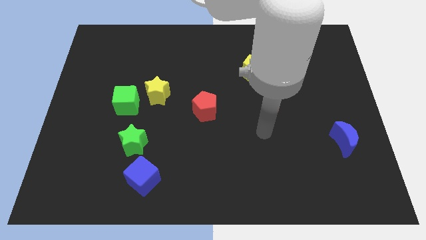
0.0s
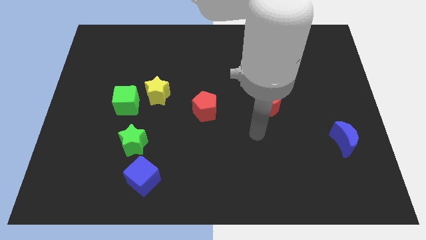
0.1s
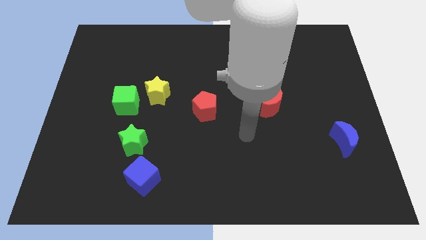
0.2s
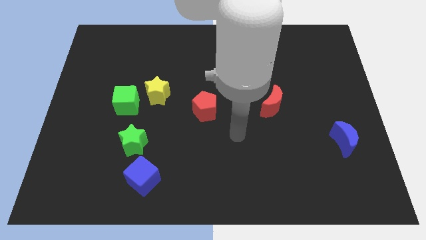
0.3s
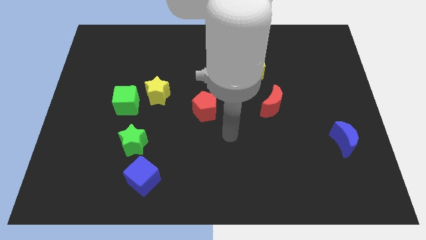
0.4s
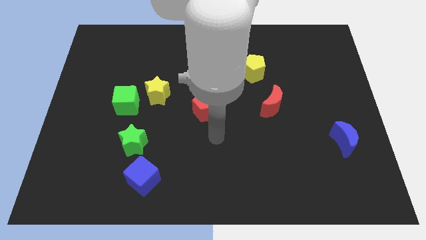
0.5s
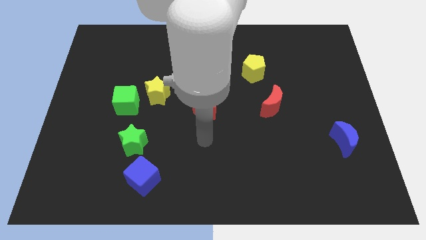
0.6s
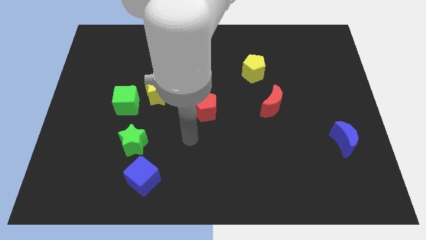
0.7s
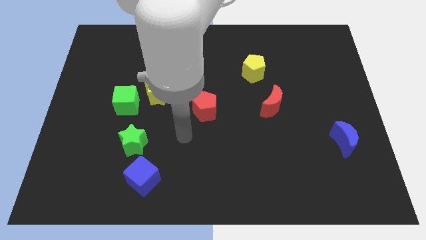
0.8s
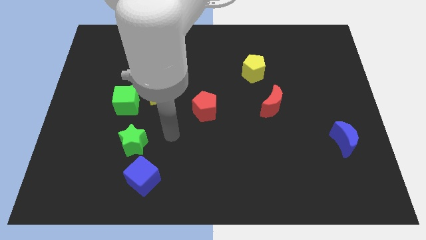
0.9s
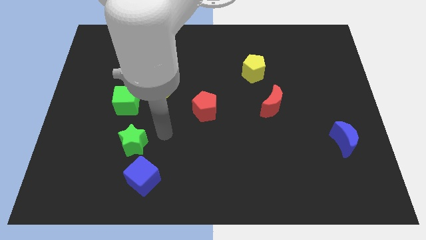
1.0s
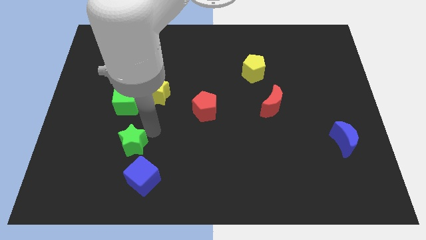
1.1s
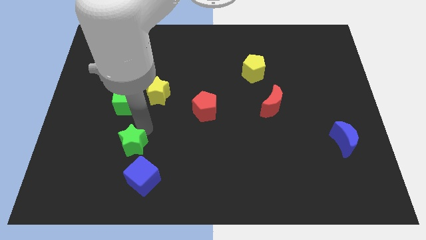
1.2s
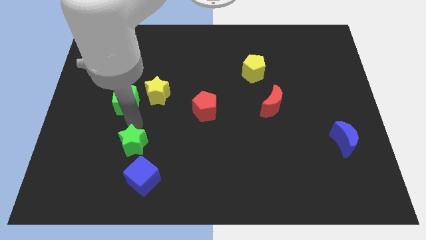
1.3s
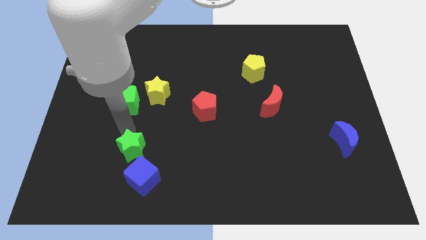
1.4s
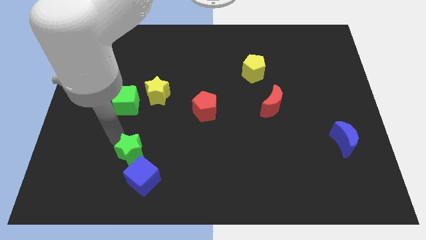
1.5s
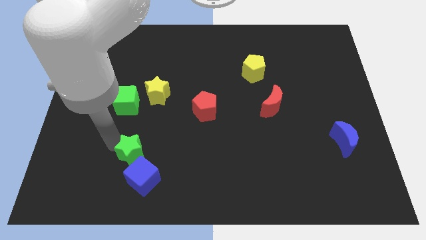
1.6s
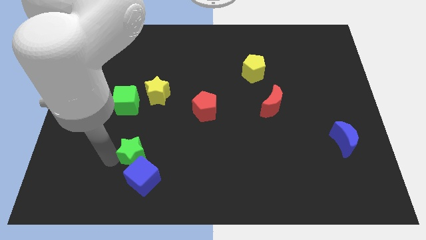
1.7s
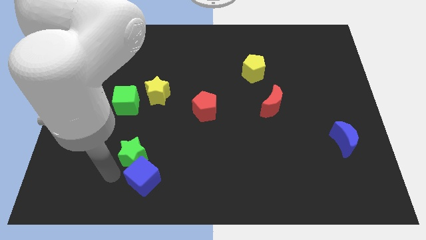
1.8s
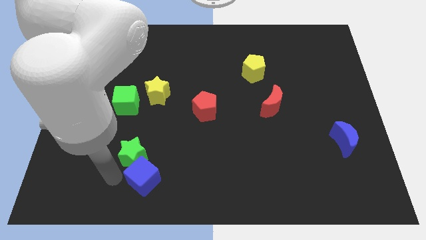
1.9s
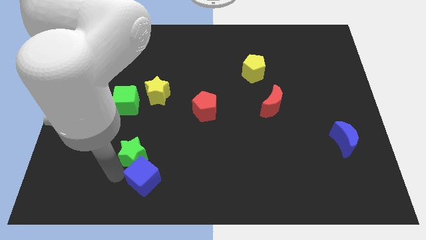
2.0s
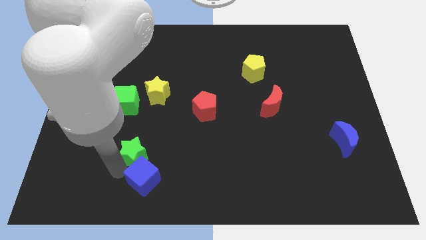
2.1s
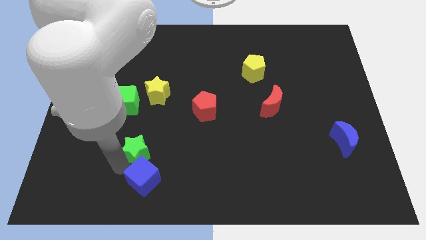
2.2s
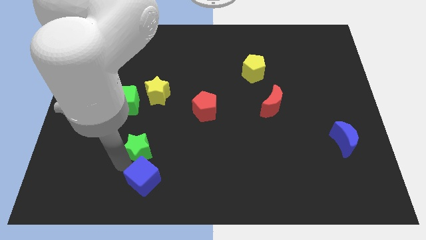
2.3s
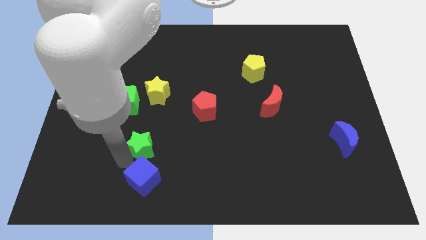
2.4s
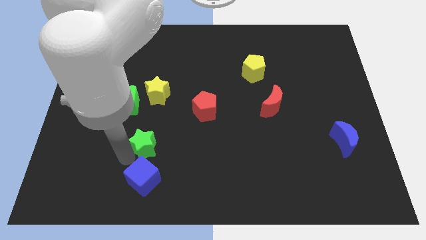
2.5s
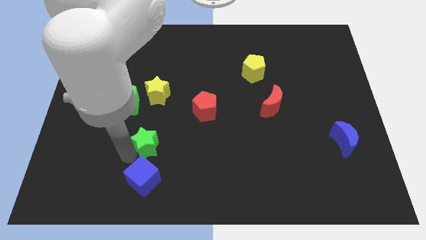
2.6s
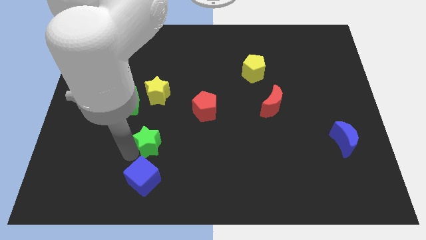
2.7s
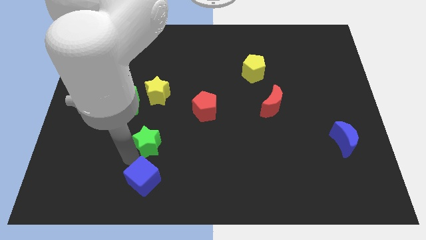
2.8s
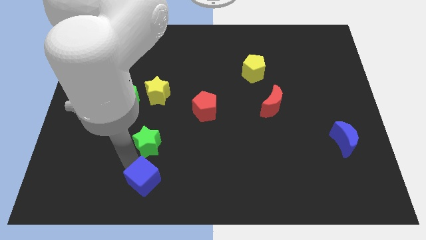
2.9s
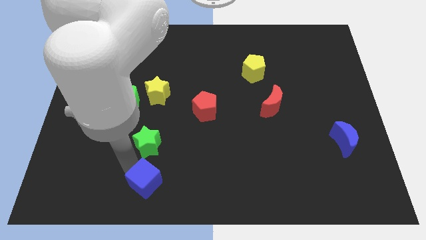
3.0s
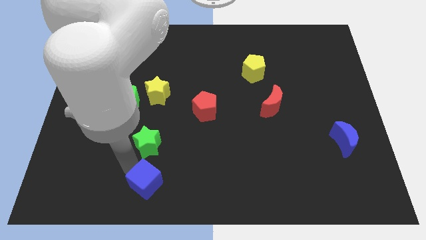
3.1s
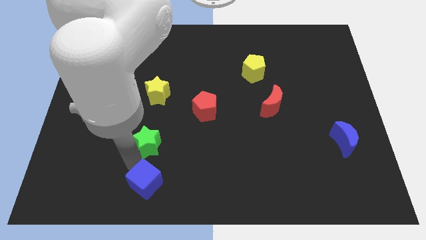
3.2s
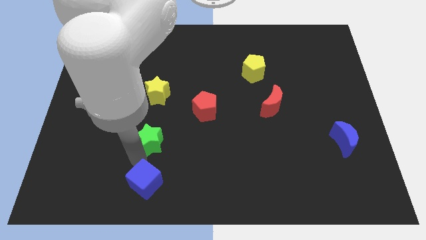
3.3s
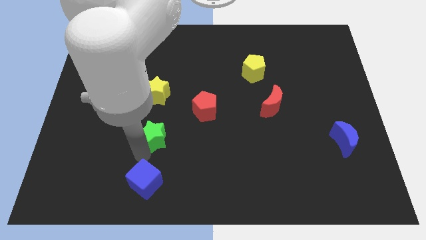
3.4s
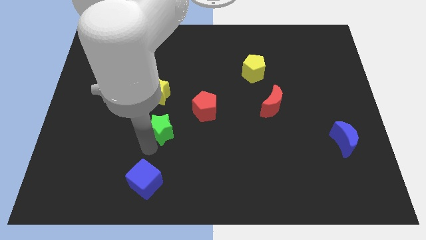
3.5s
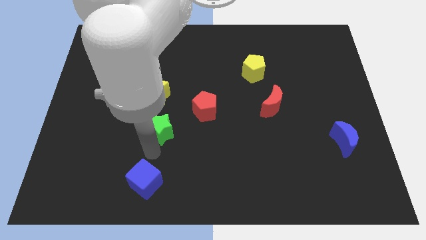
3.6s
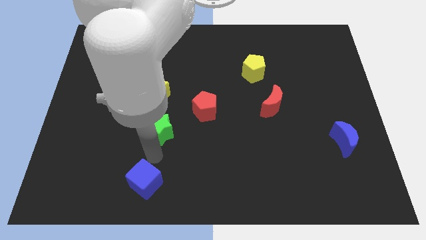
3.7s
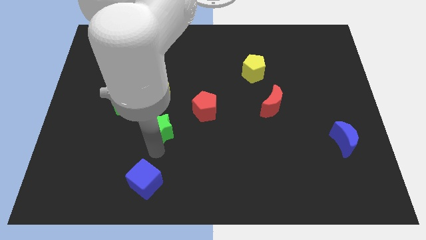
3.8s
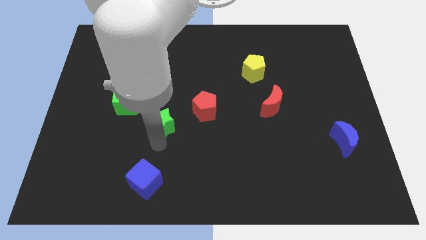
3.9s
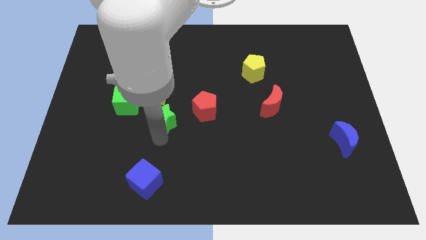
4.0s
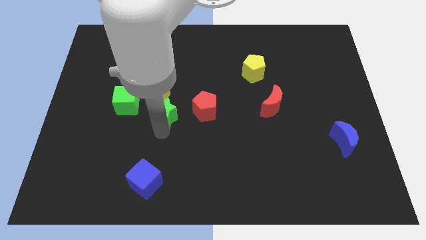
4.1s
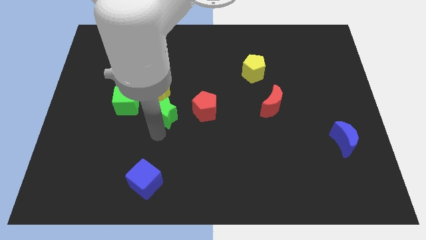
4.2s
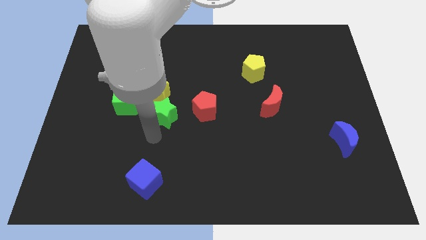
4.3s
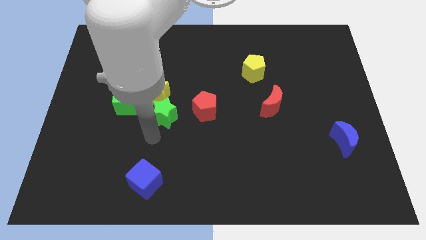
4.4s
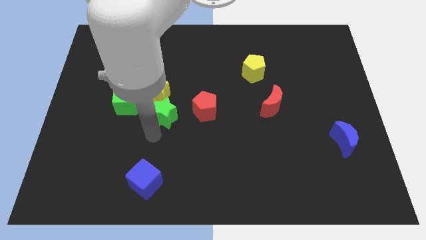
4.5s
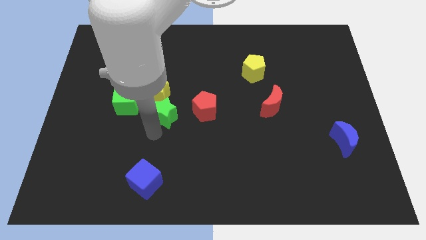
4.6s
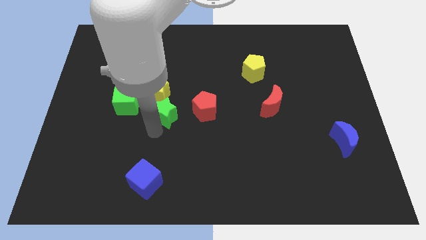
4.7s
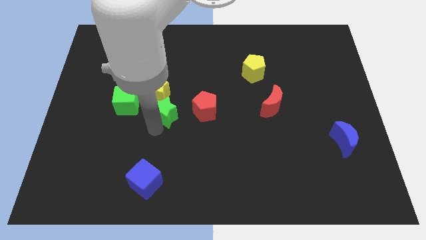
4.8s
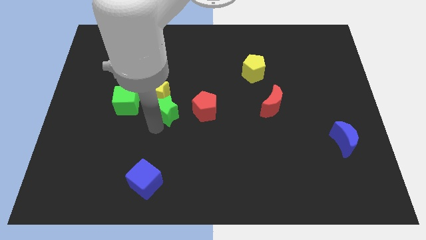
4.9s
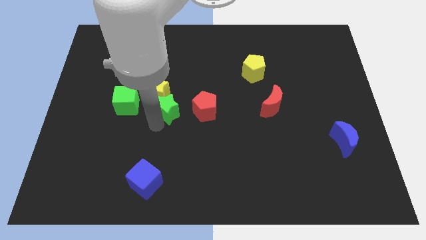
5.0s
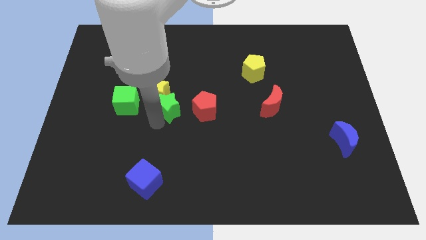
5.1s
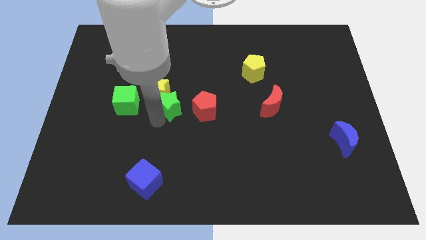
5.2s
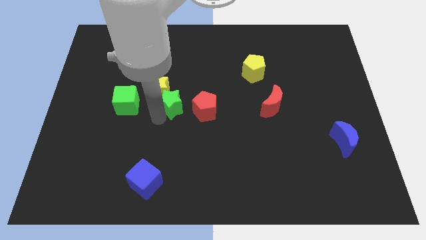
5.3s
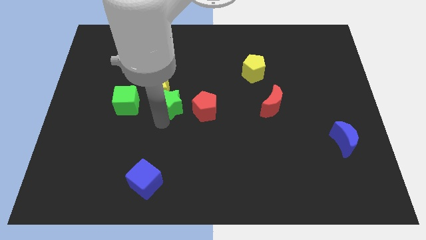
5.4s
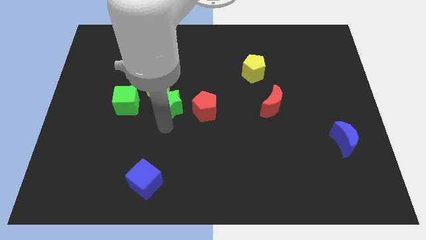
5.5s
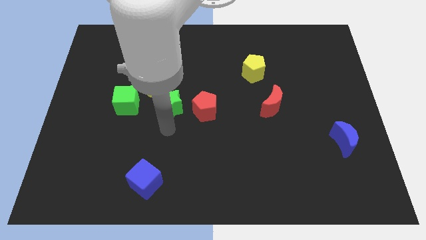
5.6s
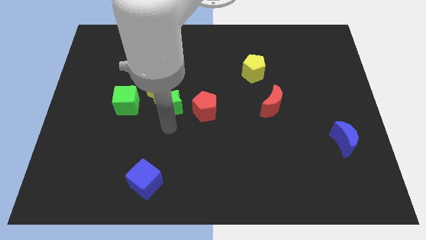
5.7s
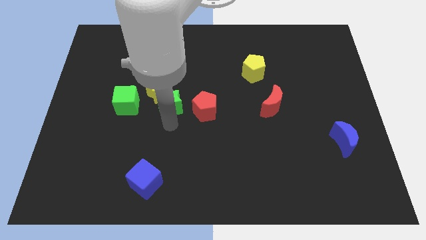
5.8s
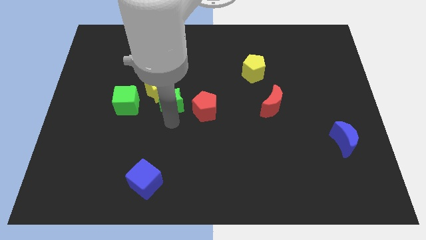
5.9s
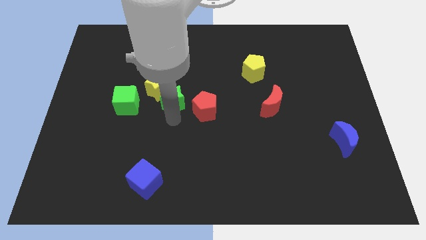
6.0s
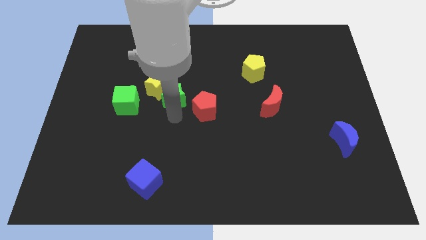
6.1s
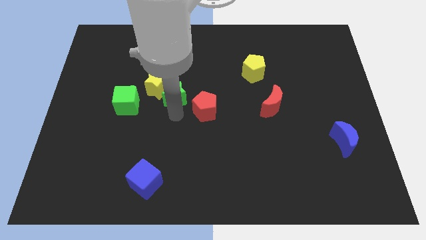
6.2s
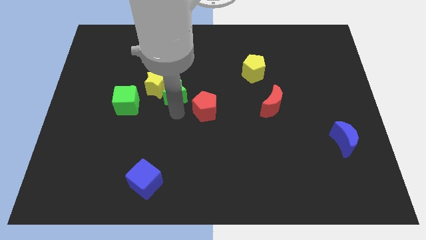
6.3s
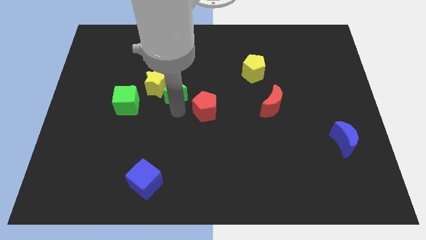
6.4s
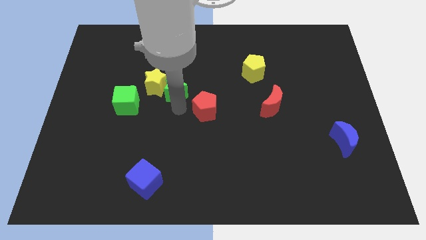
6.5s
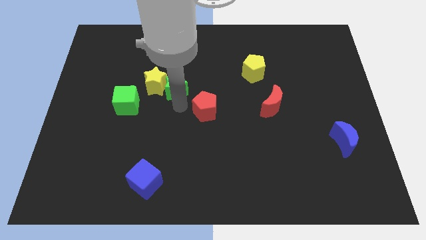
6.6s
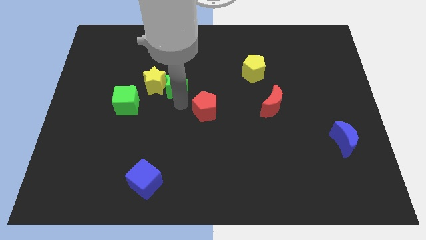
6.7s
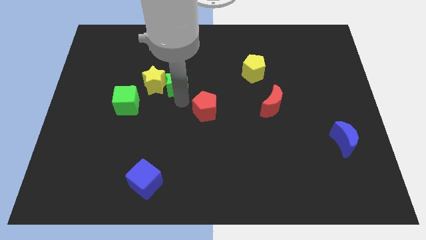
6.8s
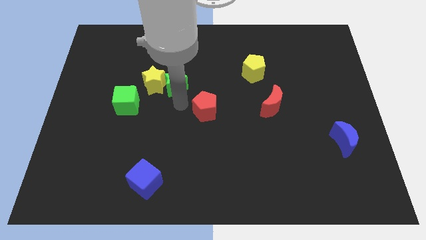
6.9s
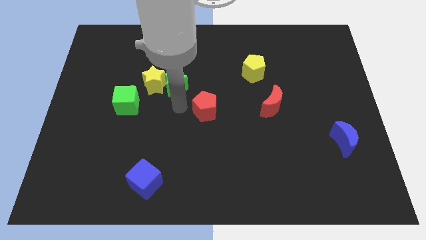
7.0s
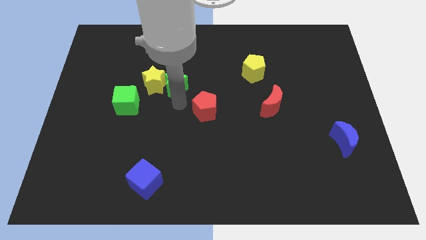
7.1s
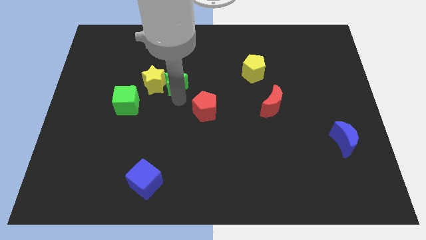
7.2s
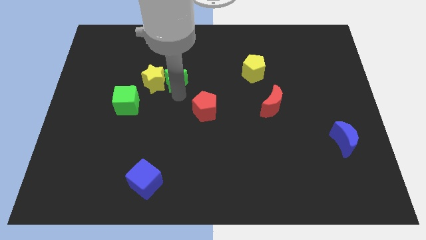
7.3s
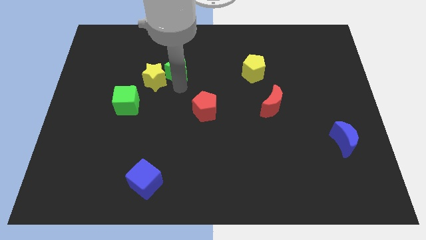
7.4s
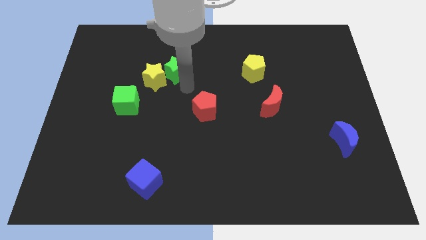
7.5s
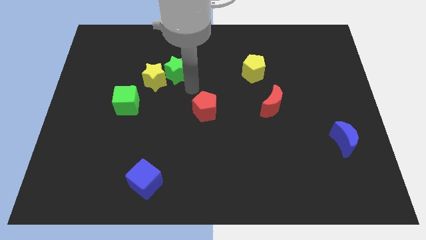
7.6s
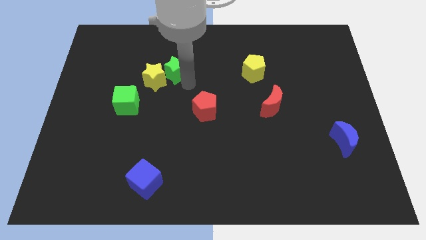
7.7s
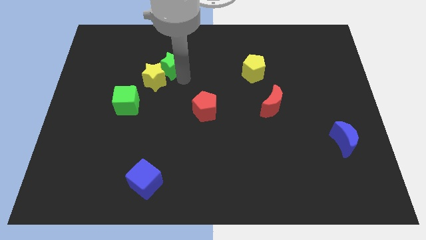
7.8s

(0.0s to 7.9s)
put the green star to the top of the yellow star
